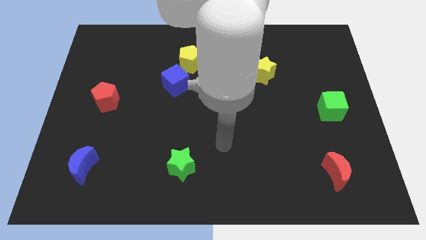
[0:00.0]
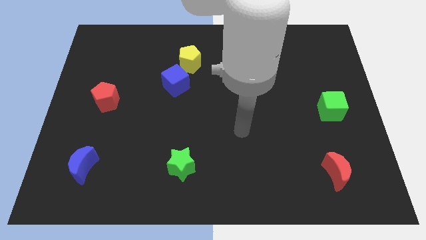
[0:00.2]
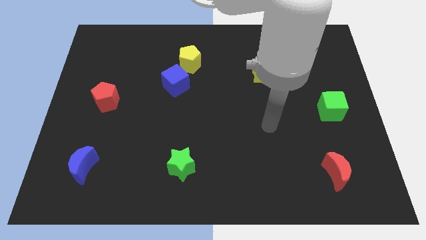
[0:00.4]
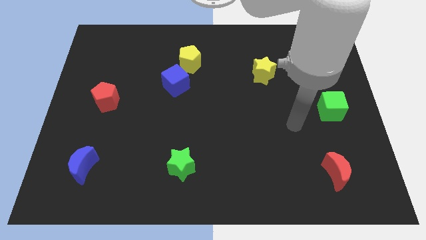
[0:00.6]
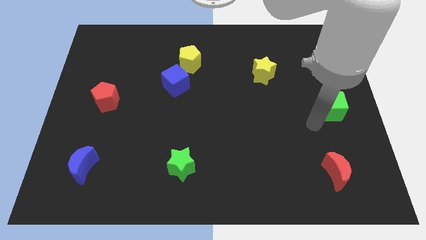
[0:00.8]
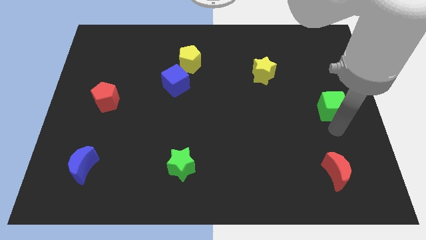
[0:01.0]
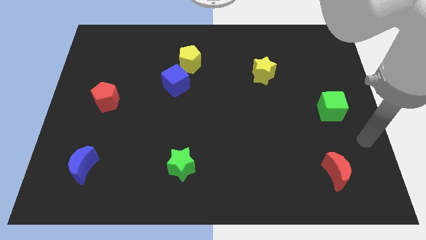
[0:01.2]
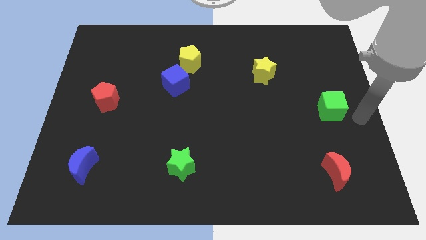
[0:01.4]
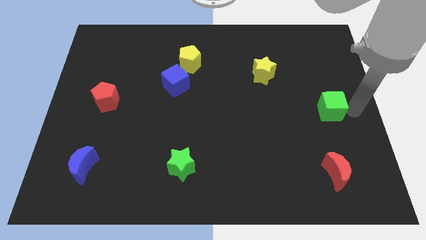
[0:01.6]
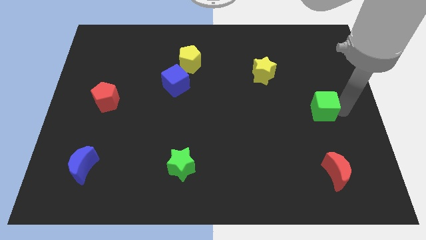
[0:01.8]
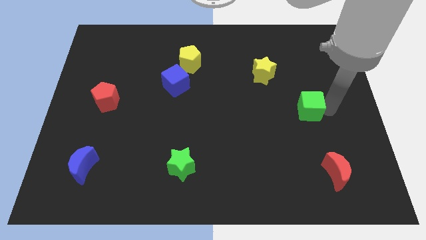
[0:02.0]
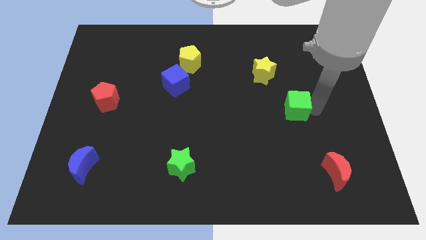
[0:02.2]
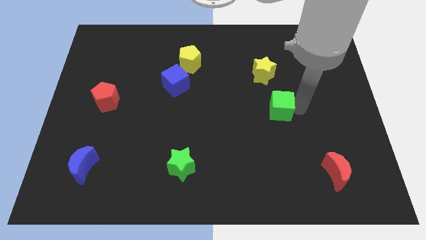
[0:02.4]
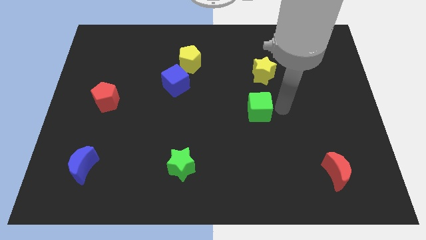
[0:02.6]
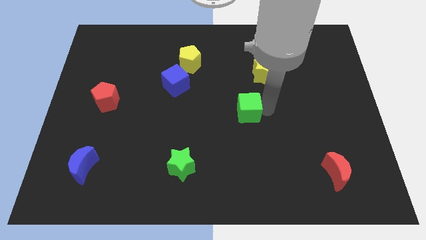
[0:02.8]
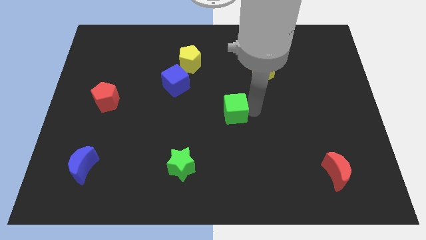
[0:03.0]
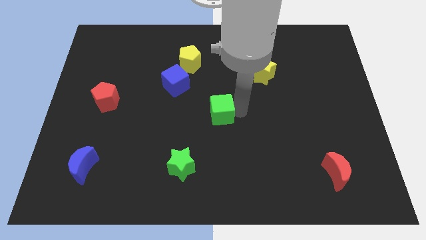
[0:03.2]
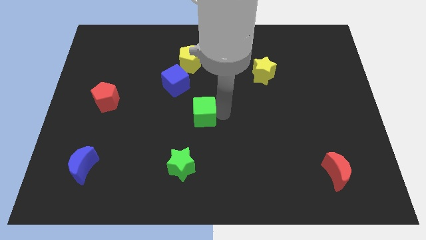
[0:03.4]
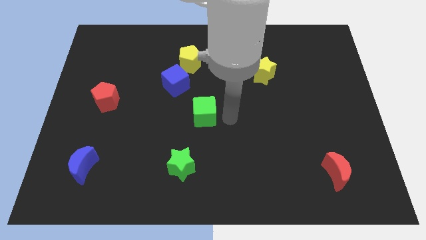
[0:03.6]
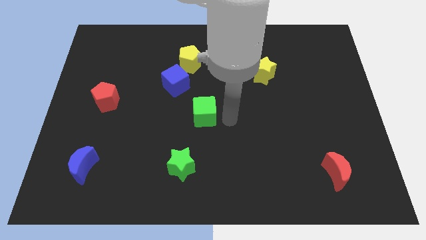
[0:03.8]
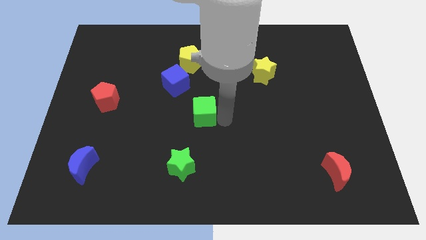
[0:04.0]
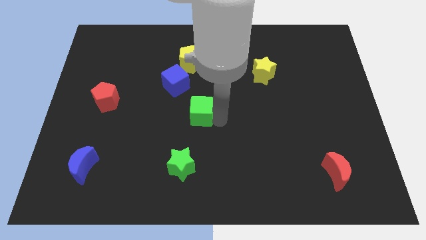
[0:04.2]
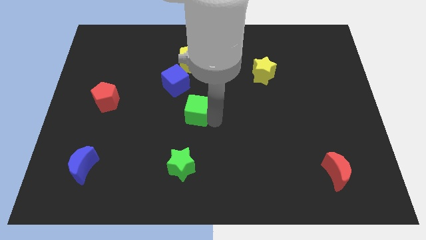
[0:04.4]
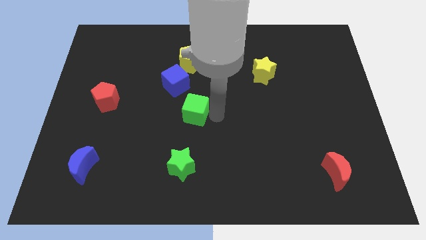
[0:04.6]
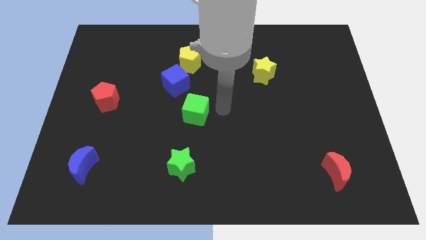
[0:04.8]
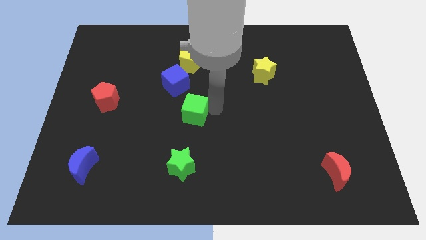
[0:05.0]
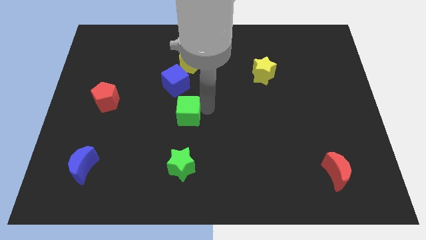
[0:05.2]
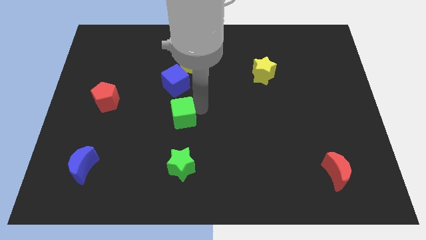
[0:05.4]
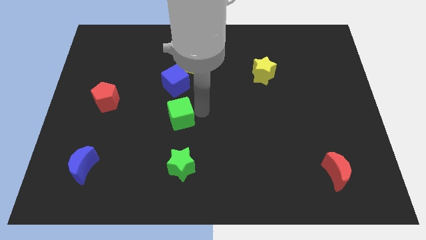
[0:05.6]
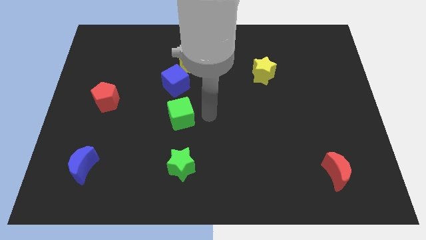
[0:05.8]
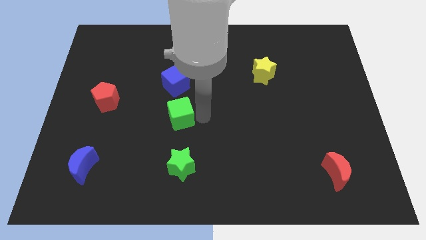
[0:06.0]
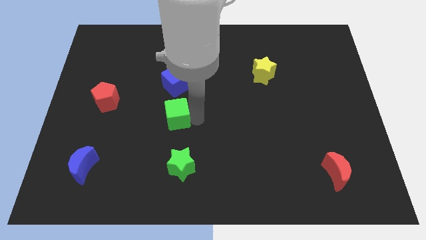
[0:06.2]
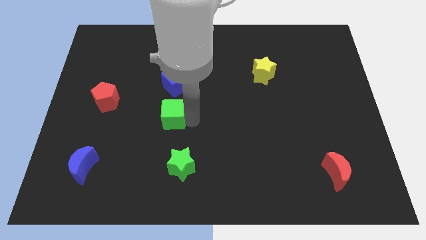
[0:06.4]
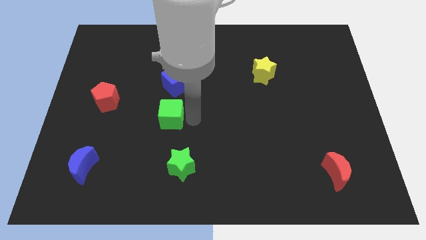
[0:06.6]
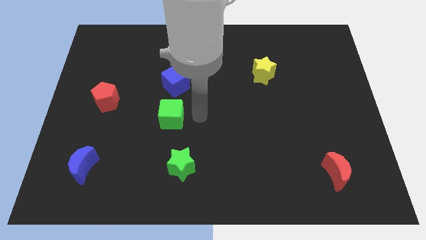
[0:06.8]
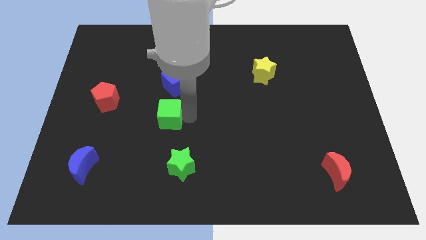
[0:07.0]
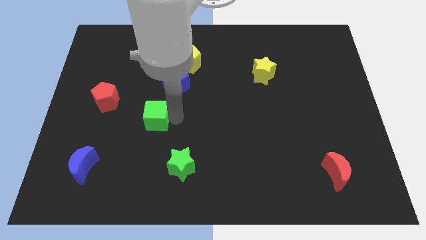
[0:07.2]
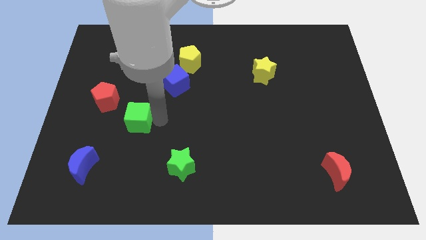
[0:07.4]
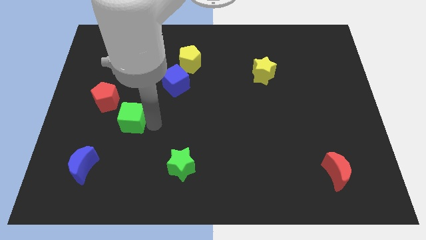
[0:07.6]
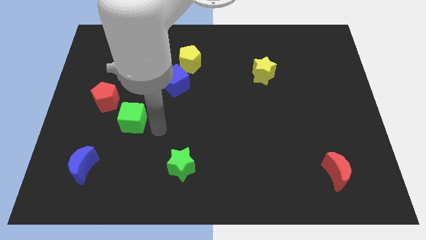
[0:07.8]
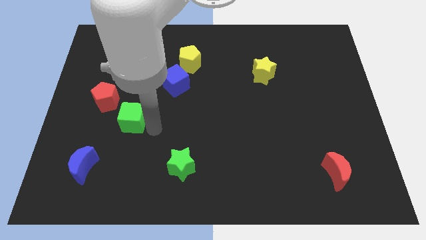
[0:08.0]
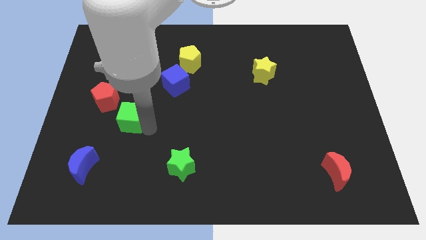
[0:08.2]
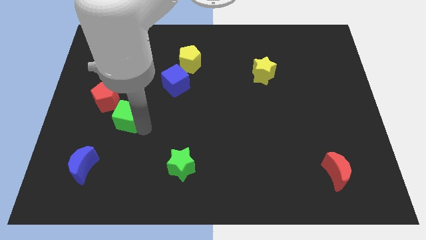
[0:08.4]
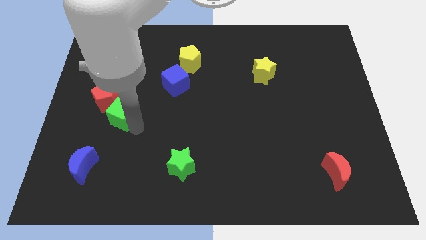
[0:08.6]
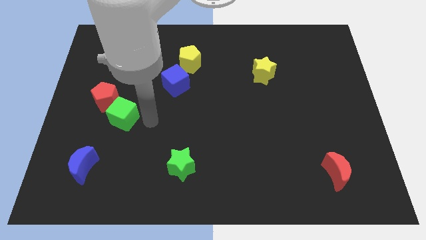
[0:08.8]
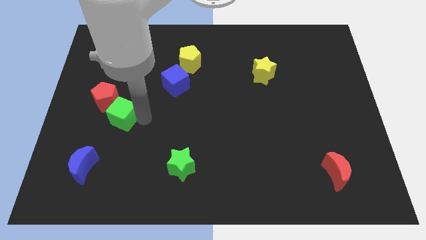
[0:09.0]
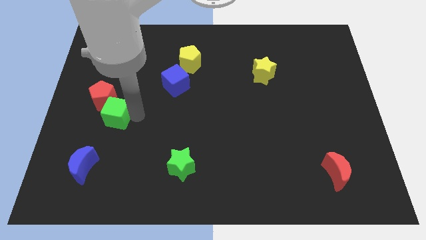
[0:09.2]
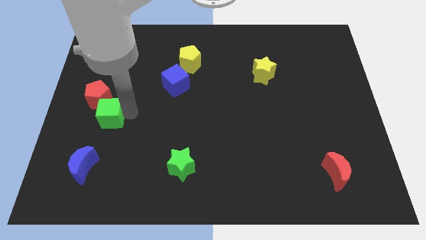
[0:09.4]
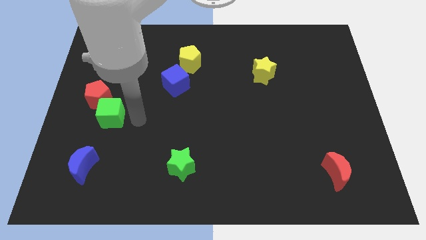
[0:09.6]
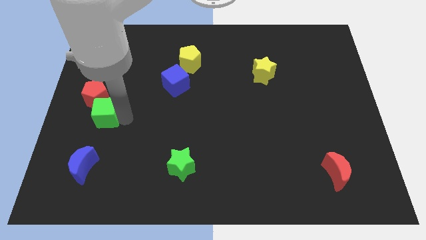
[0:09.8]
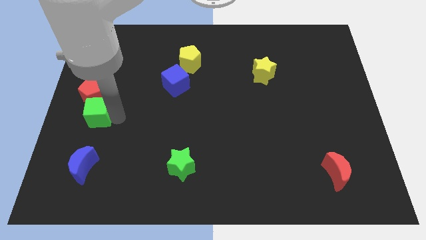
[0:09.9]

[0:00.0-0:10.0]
slide the green cube to the left side of the board

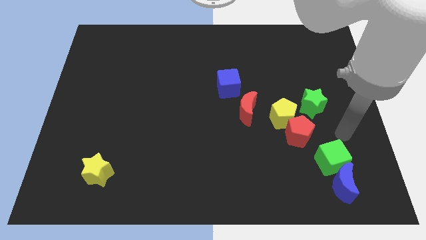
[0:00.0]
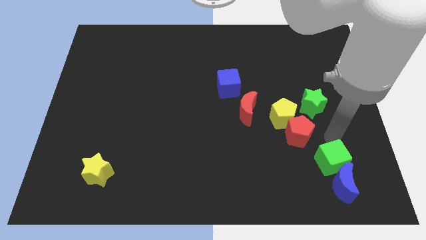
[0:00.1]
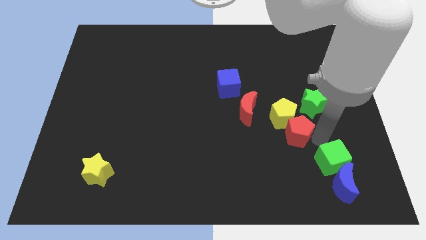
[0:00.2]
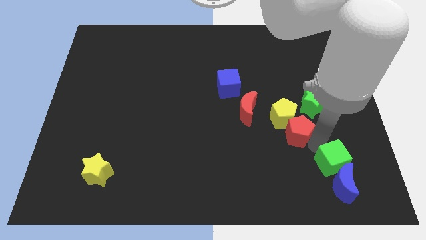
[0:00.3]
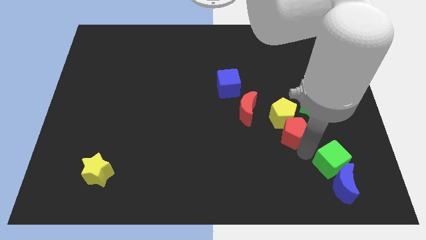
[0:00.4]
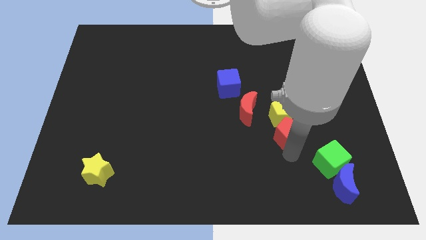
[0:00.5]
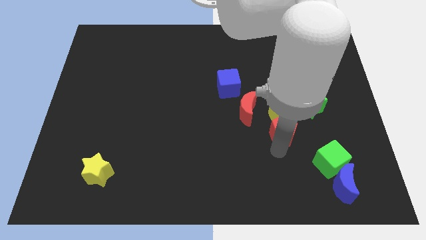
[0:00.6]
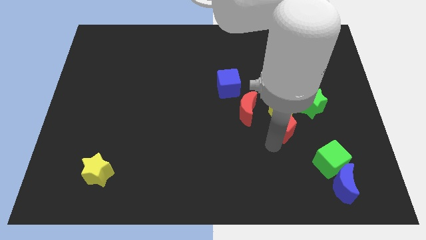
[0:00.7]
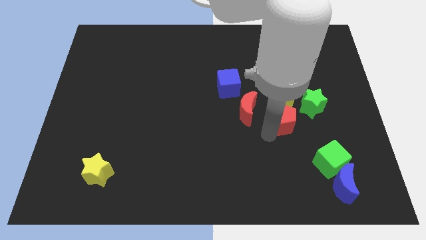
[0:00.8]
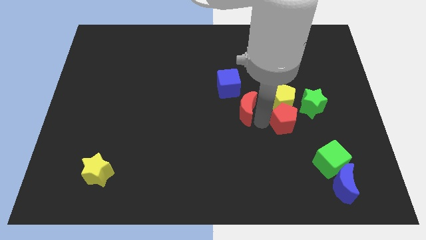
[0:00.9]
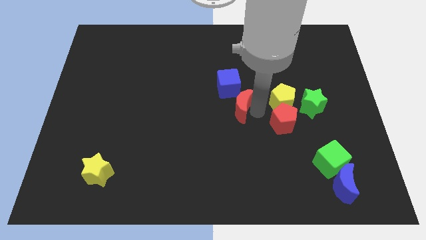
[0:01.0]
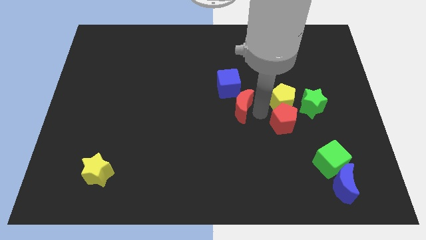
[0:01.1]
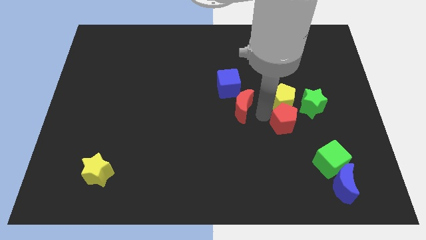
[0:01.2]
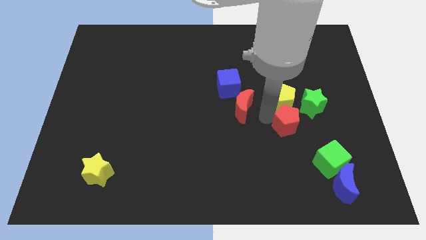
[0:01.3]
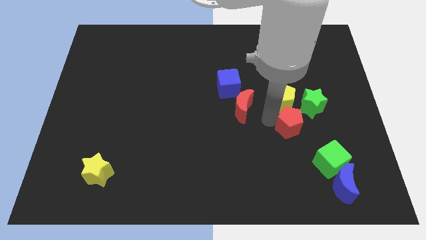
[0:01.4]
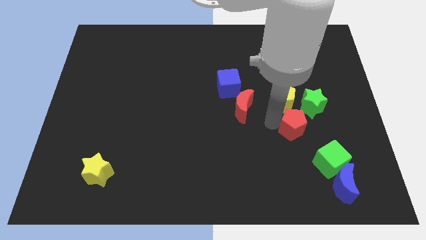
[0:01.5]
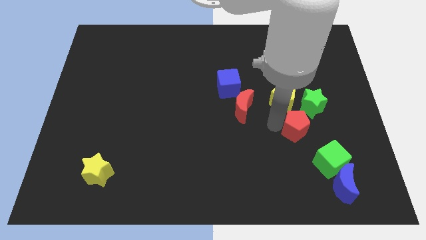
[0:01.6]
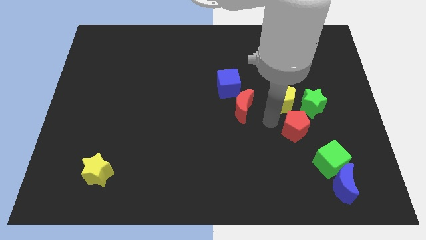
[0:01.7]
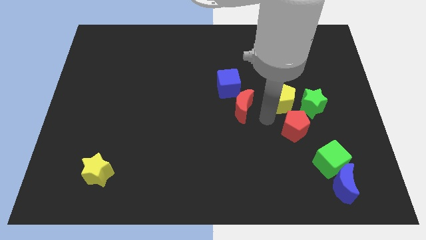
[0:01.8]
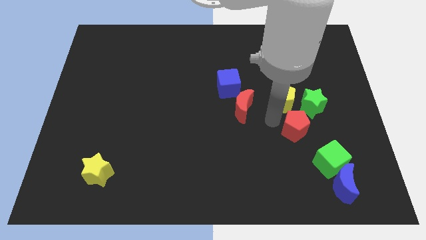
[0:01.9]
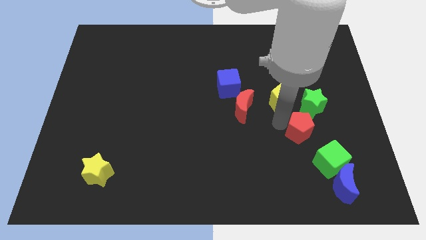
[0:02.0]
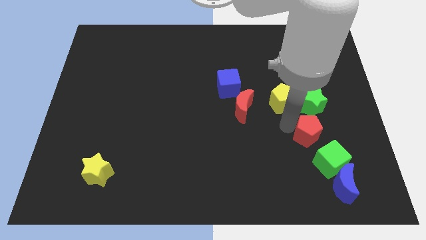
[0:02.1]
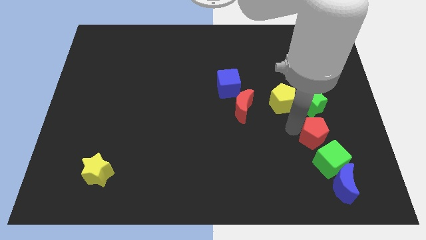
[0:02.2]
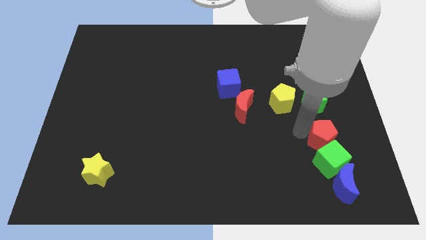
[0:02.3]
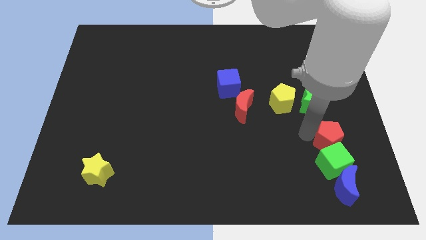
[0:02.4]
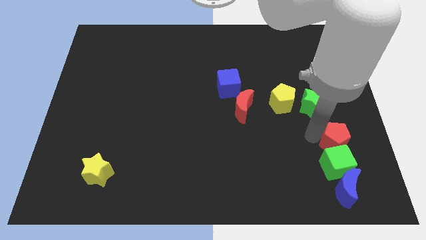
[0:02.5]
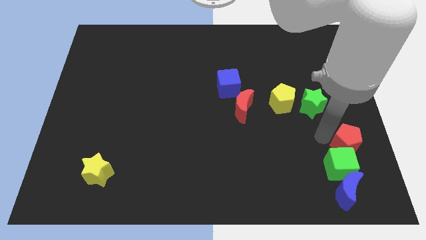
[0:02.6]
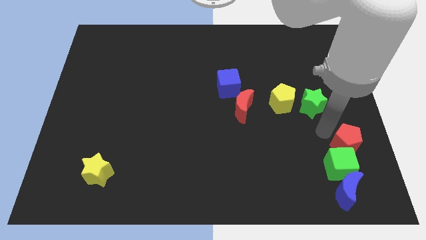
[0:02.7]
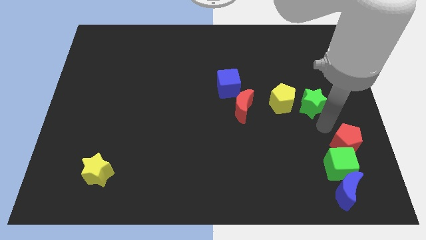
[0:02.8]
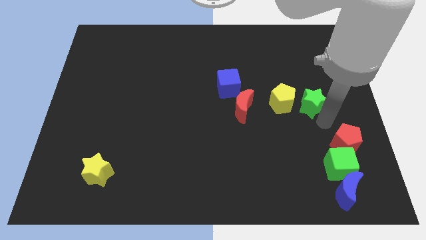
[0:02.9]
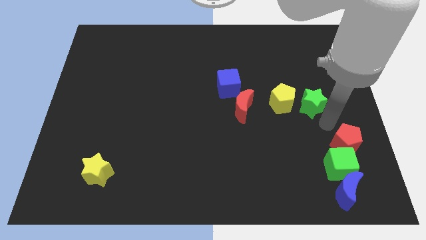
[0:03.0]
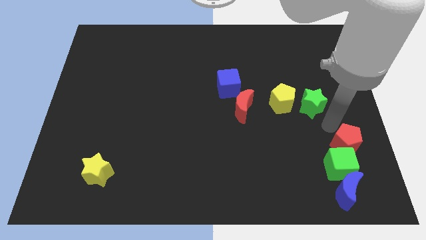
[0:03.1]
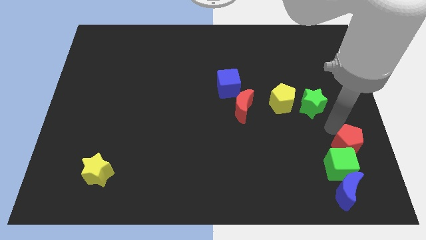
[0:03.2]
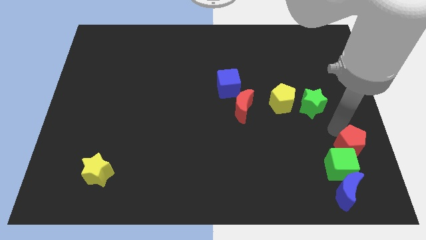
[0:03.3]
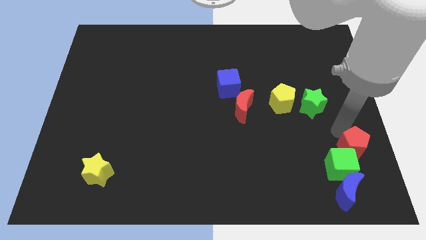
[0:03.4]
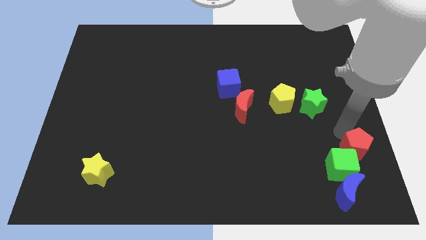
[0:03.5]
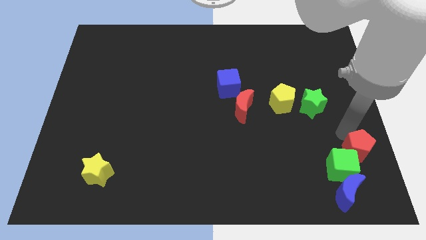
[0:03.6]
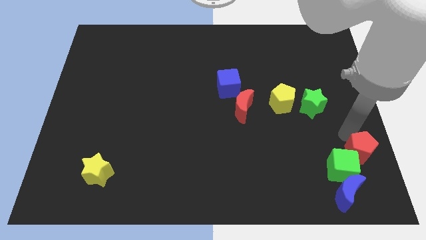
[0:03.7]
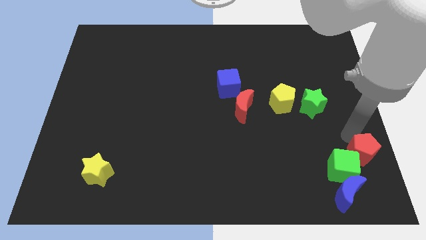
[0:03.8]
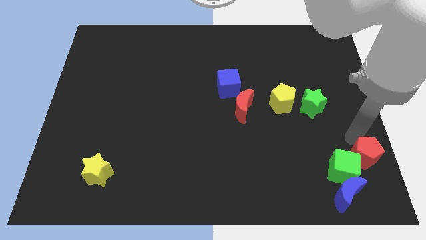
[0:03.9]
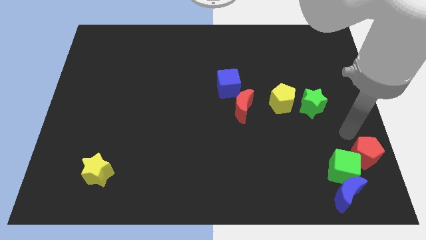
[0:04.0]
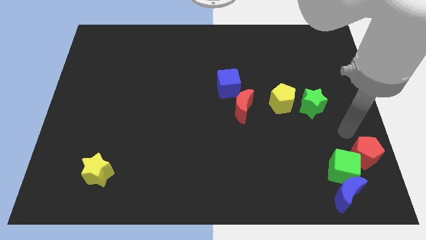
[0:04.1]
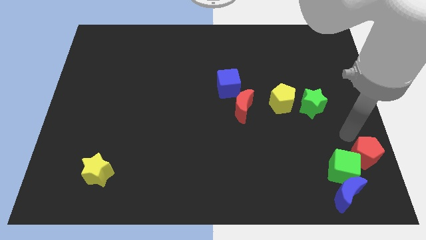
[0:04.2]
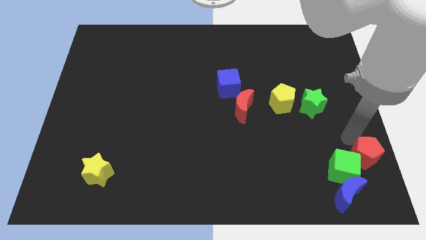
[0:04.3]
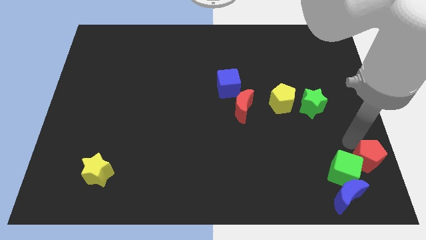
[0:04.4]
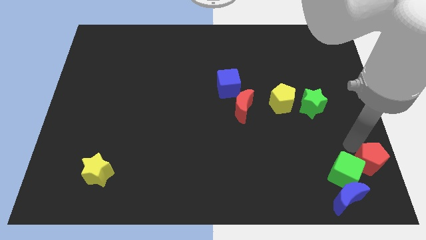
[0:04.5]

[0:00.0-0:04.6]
move the red pentagon to the bottom right corner
